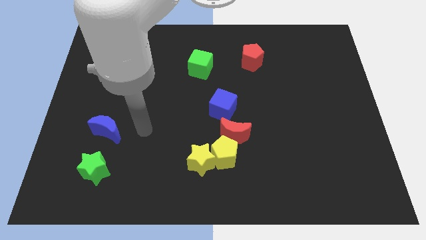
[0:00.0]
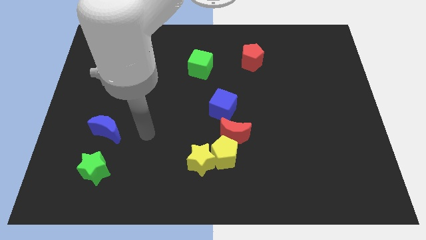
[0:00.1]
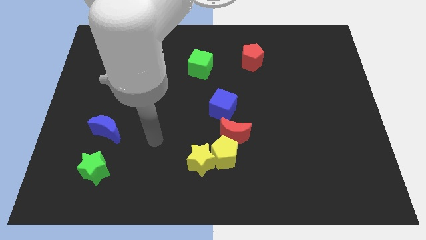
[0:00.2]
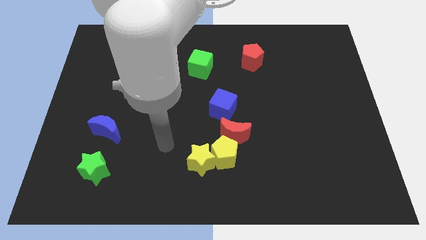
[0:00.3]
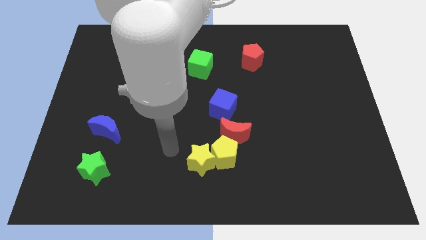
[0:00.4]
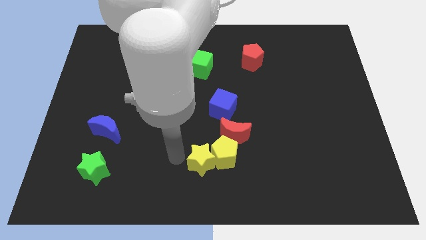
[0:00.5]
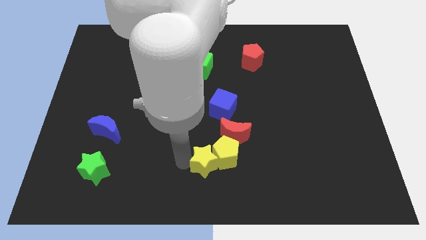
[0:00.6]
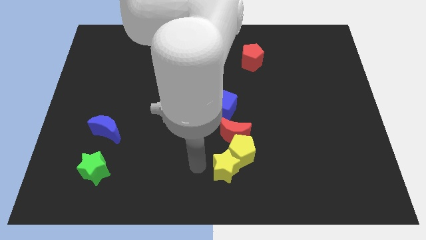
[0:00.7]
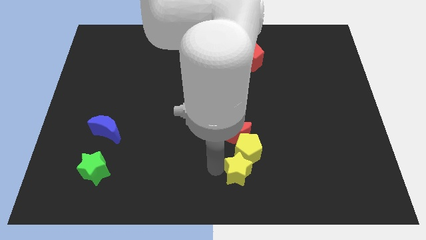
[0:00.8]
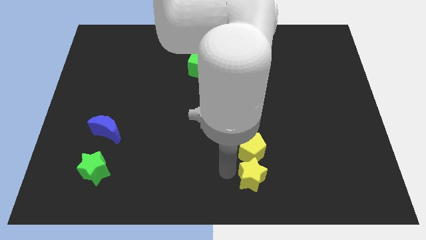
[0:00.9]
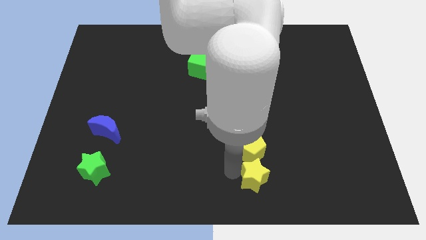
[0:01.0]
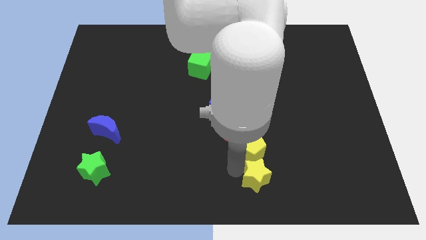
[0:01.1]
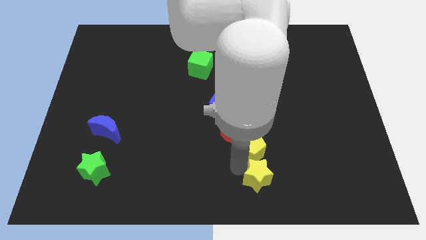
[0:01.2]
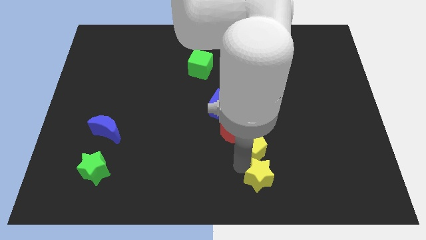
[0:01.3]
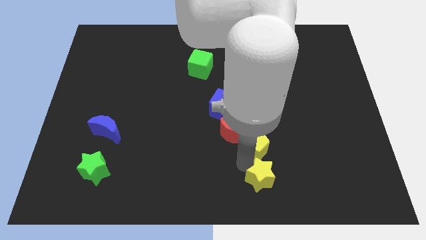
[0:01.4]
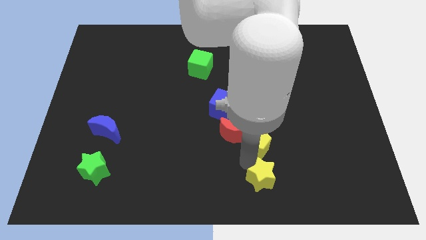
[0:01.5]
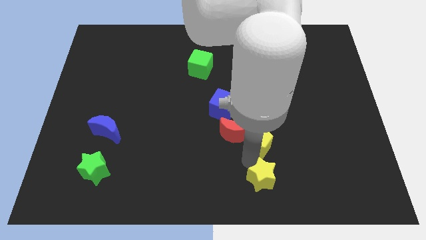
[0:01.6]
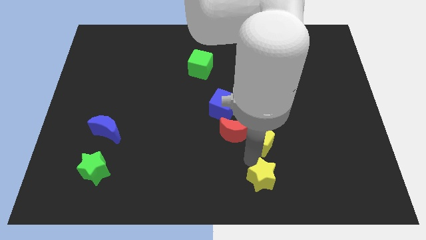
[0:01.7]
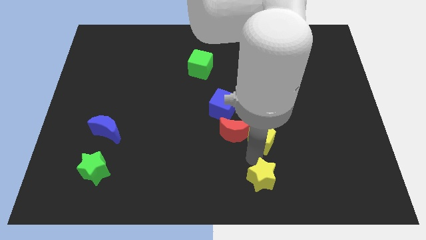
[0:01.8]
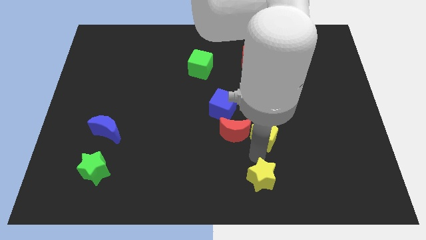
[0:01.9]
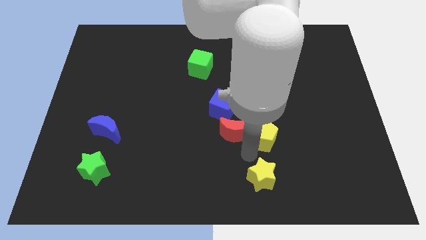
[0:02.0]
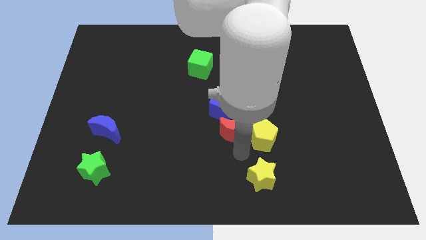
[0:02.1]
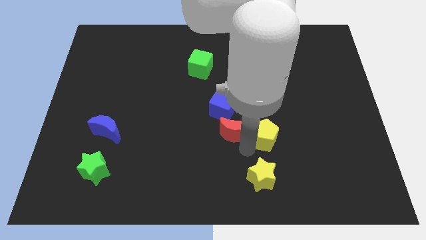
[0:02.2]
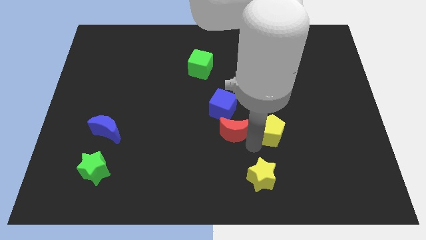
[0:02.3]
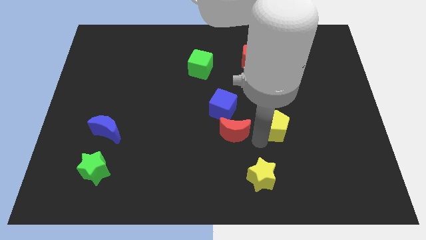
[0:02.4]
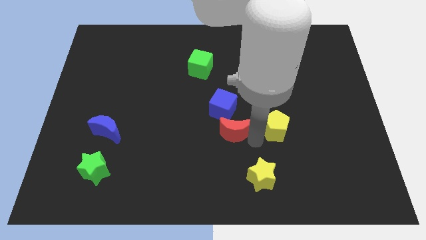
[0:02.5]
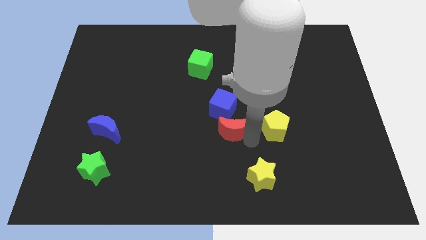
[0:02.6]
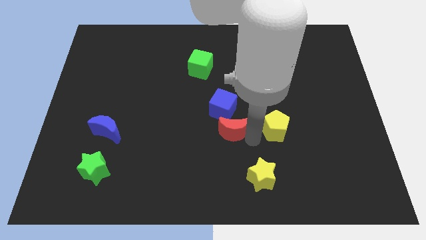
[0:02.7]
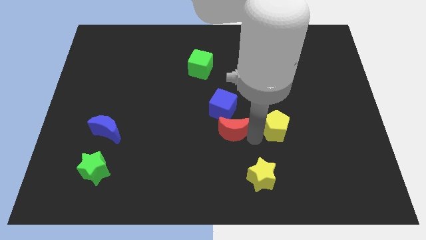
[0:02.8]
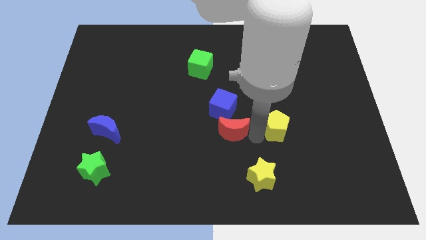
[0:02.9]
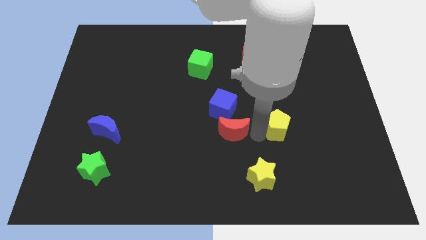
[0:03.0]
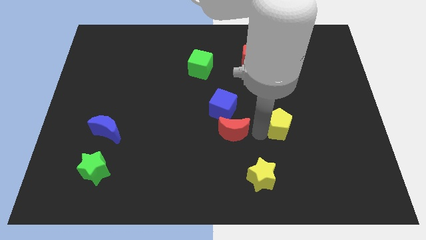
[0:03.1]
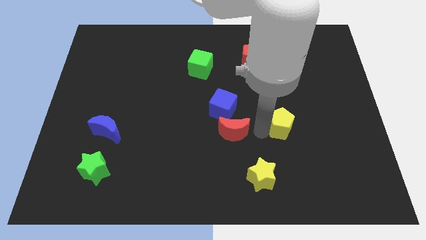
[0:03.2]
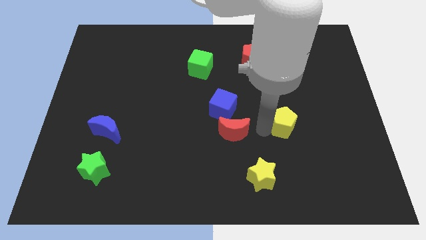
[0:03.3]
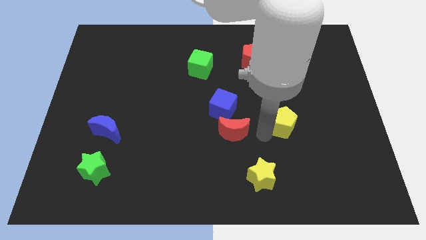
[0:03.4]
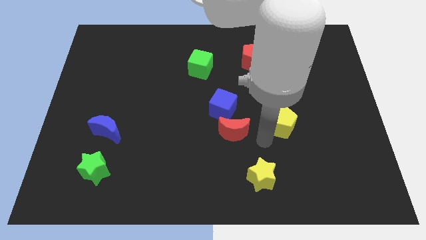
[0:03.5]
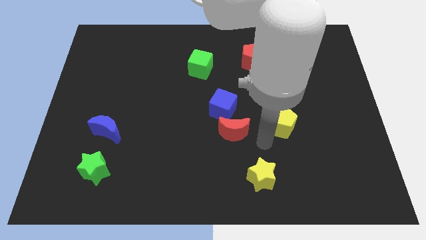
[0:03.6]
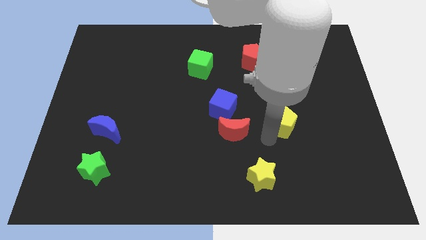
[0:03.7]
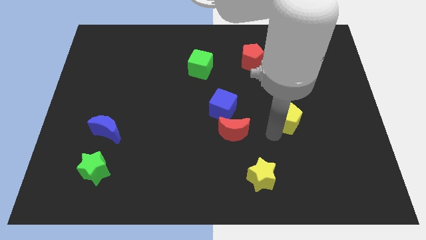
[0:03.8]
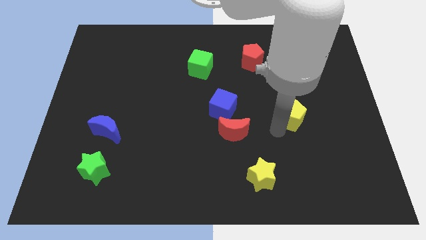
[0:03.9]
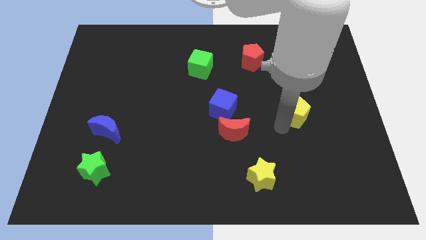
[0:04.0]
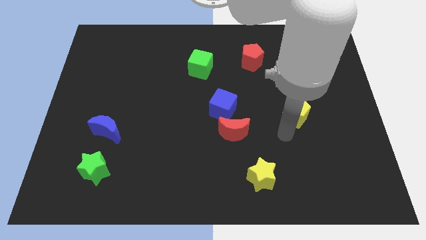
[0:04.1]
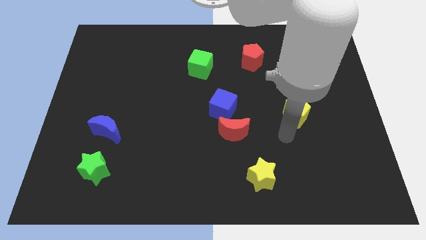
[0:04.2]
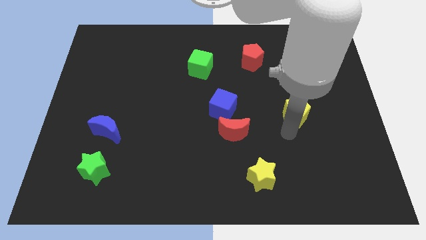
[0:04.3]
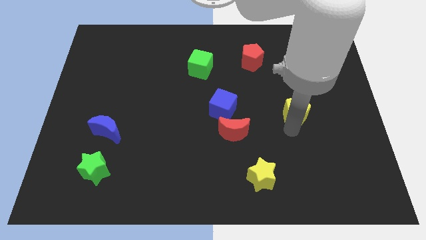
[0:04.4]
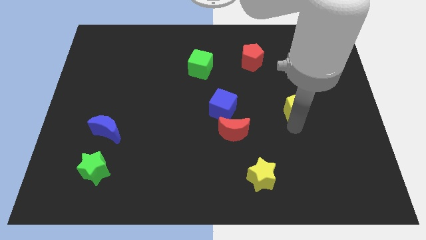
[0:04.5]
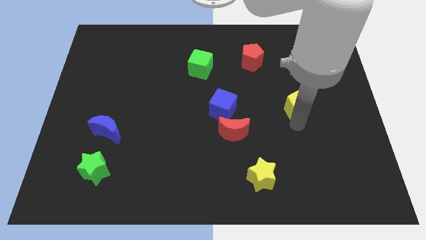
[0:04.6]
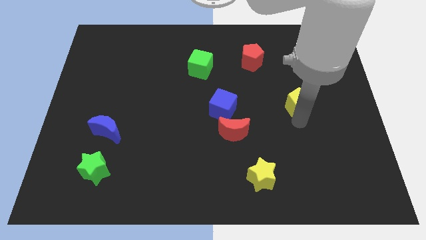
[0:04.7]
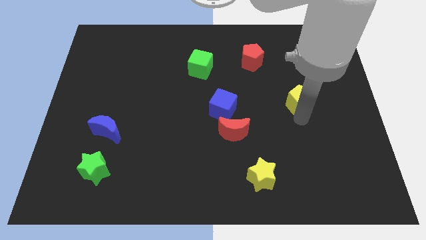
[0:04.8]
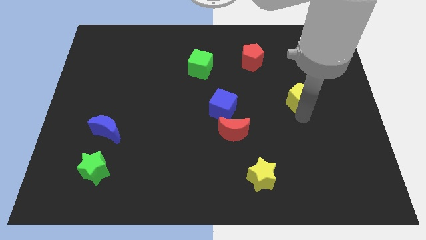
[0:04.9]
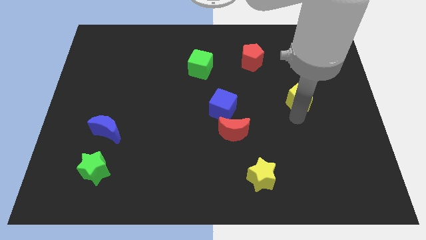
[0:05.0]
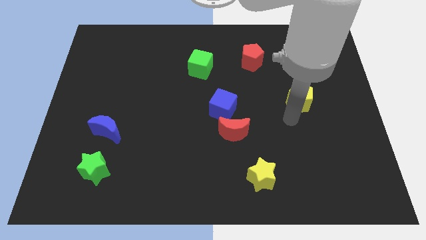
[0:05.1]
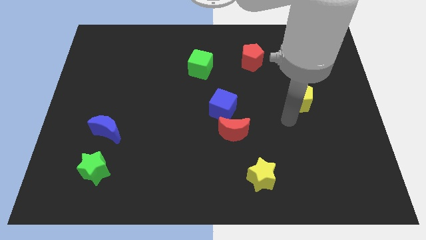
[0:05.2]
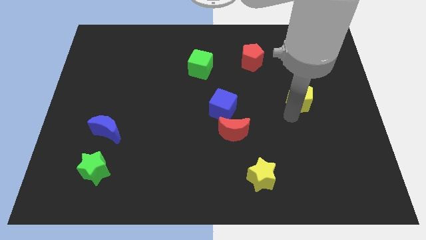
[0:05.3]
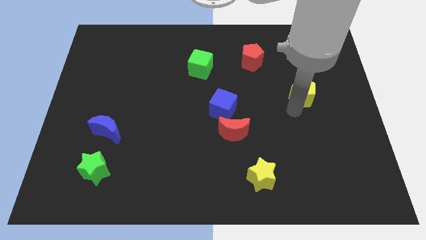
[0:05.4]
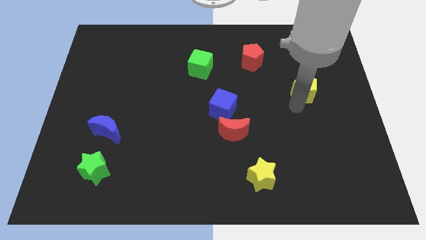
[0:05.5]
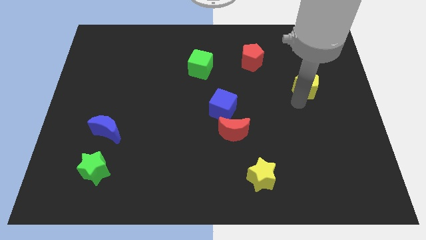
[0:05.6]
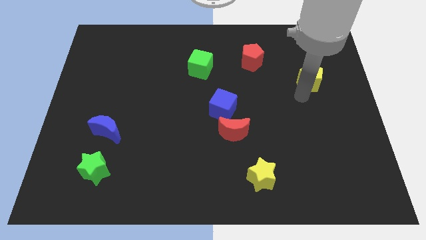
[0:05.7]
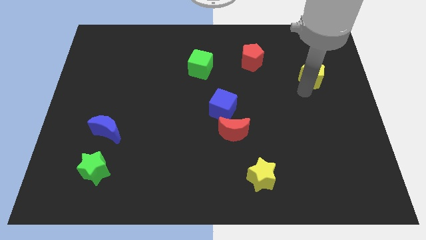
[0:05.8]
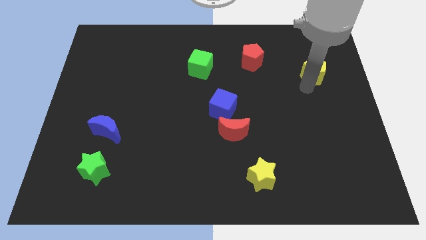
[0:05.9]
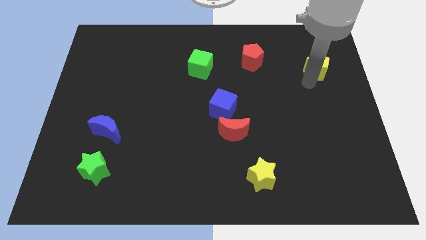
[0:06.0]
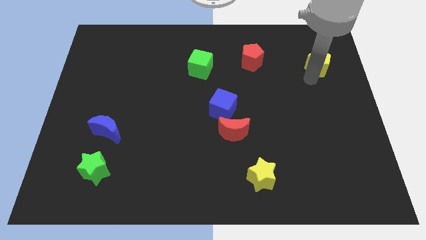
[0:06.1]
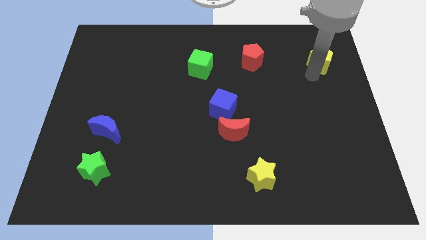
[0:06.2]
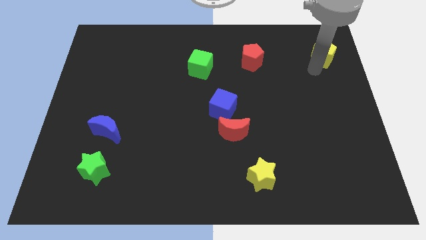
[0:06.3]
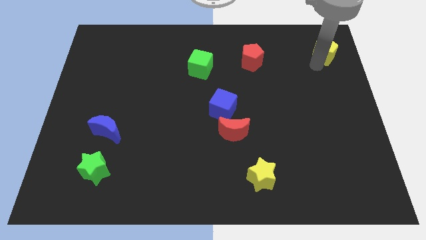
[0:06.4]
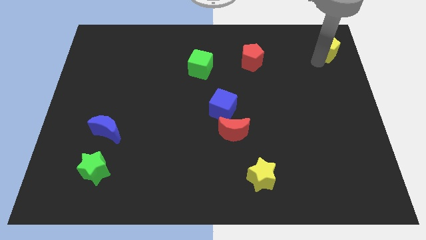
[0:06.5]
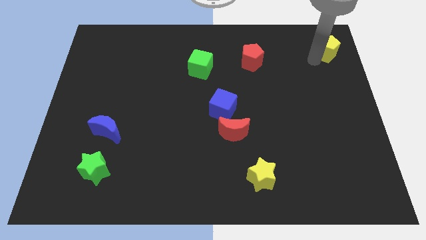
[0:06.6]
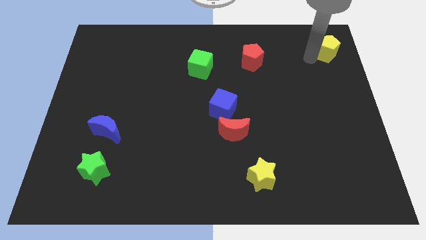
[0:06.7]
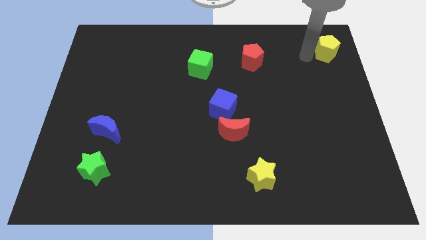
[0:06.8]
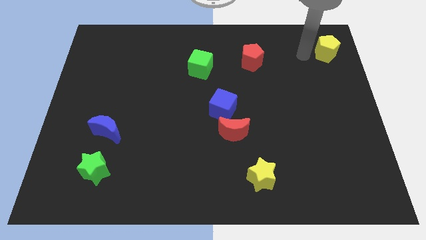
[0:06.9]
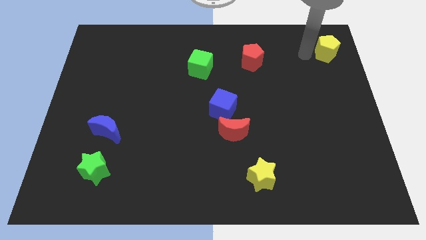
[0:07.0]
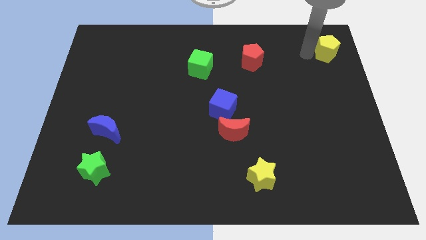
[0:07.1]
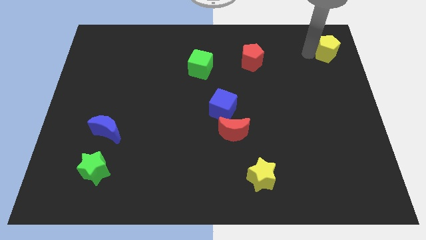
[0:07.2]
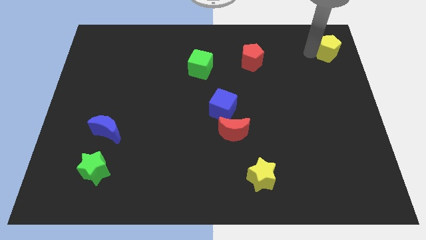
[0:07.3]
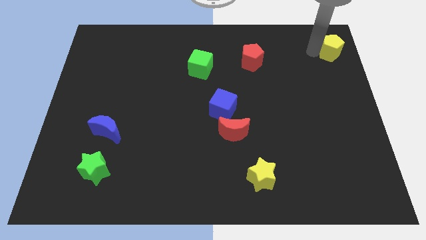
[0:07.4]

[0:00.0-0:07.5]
put the yellow pentagon to the top right of the board
